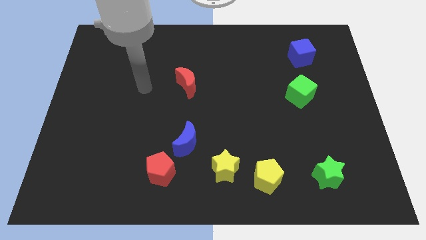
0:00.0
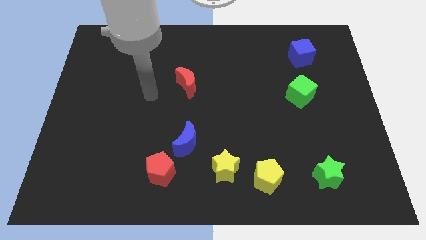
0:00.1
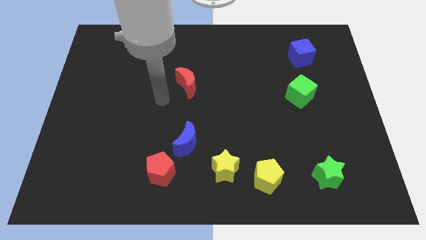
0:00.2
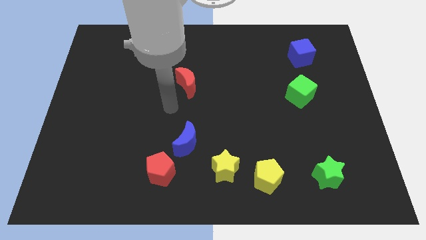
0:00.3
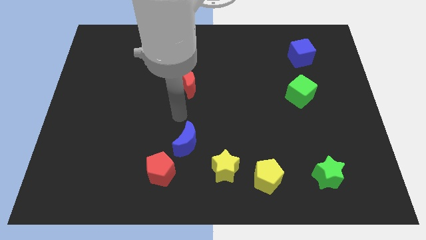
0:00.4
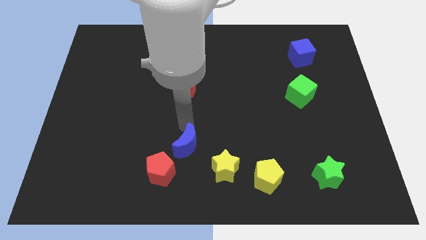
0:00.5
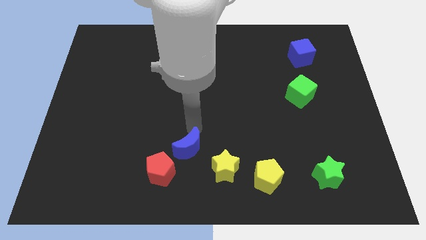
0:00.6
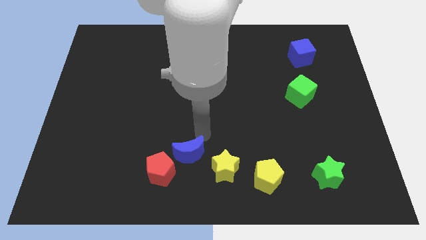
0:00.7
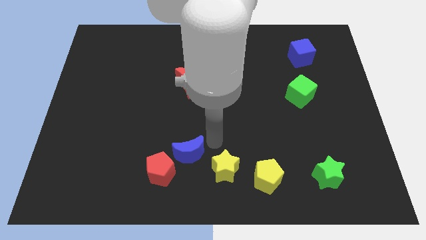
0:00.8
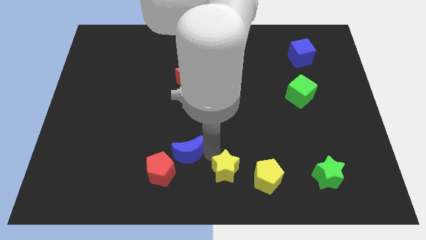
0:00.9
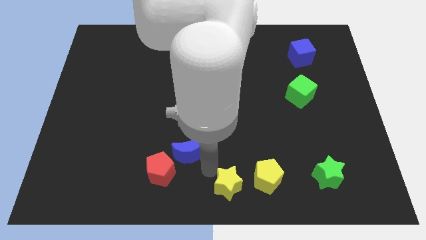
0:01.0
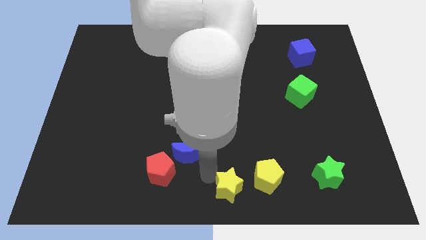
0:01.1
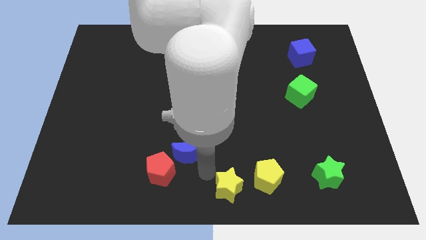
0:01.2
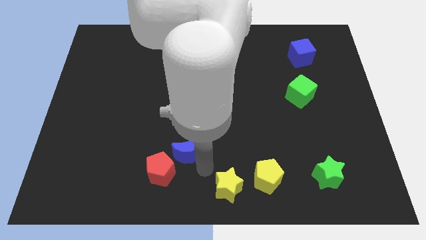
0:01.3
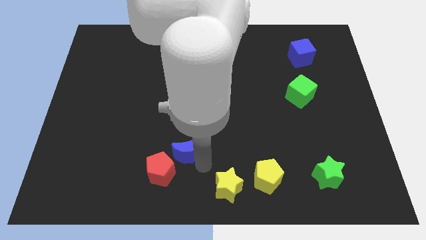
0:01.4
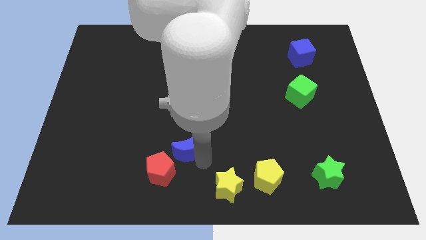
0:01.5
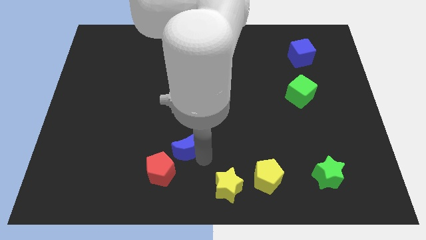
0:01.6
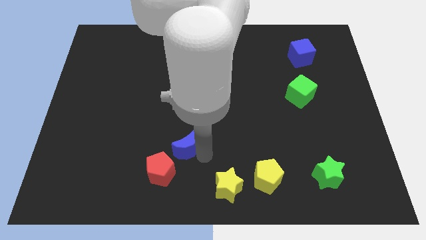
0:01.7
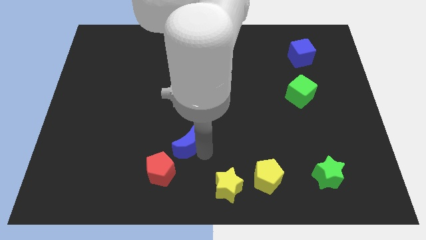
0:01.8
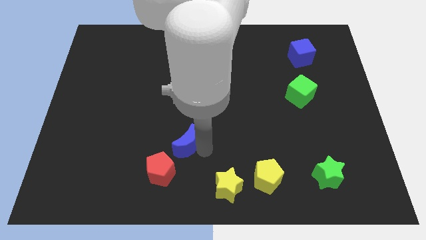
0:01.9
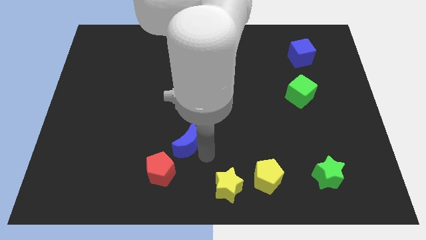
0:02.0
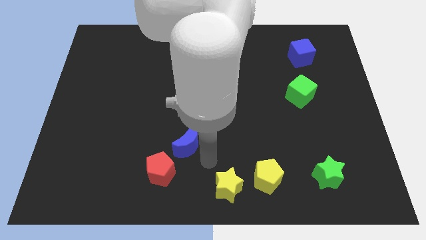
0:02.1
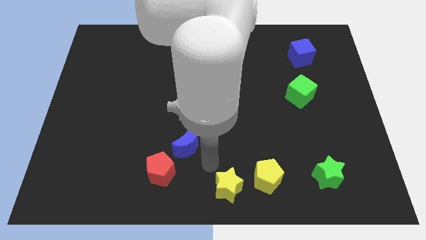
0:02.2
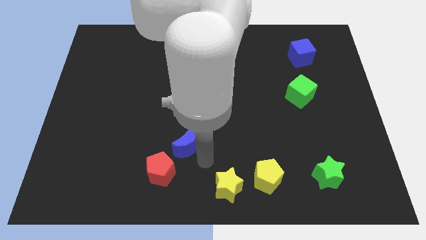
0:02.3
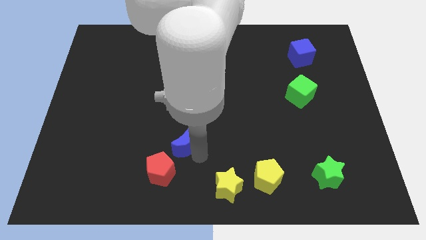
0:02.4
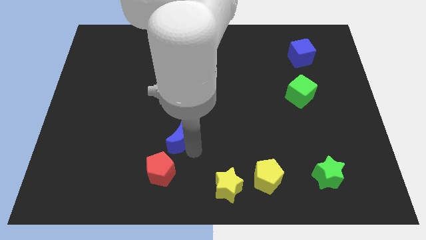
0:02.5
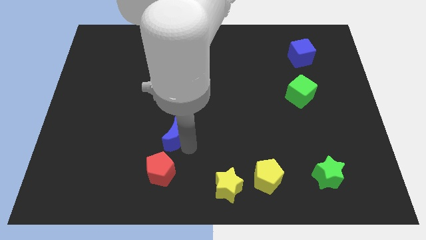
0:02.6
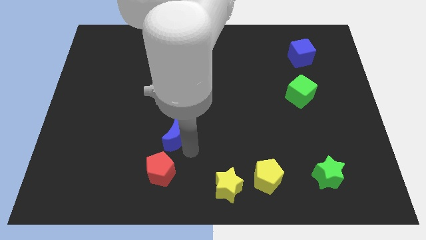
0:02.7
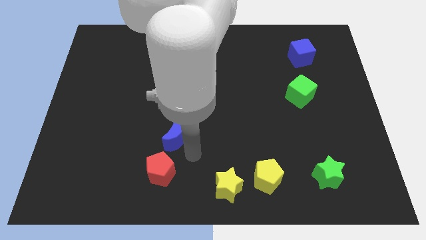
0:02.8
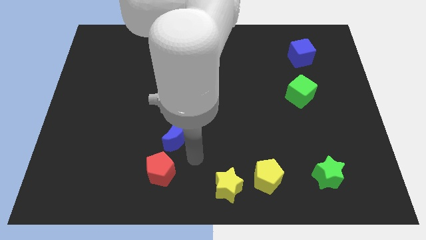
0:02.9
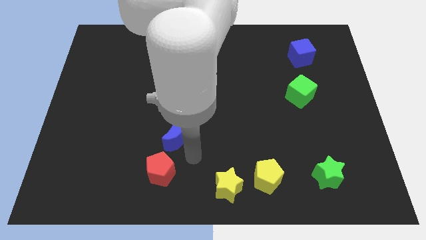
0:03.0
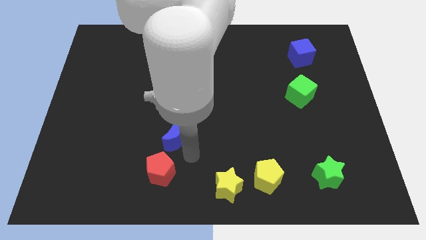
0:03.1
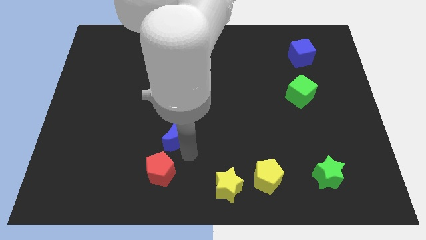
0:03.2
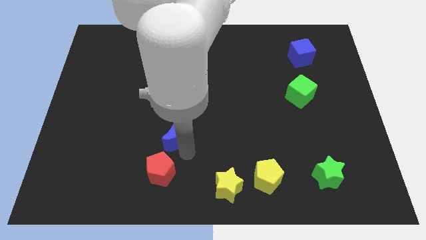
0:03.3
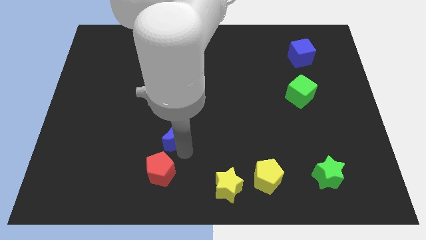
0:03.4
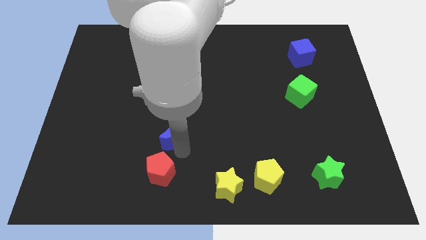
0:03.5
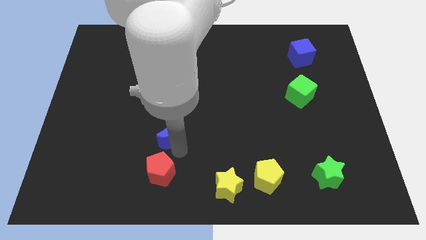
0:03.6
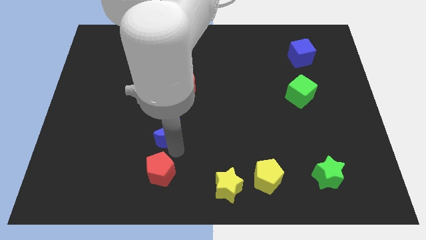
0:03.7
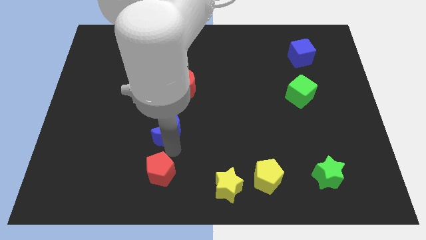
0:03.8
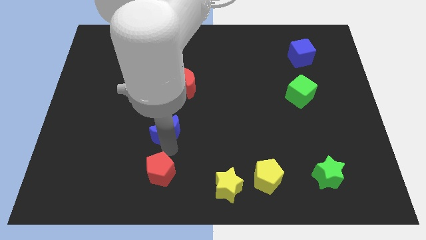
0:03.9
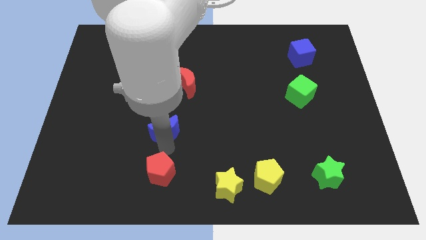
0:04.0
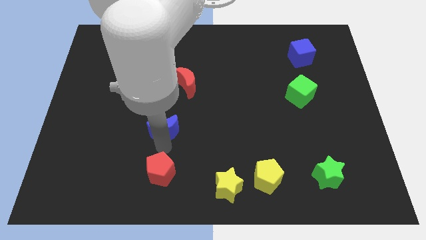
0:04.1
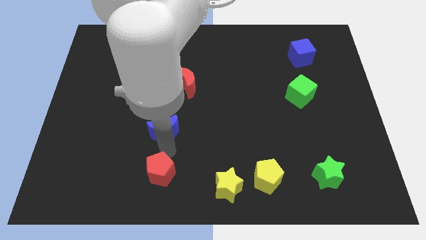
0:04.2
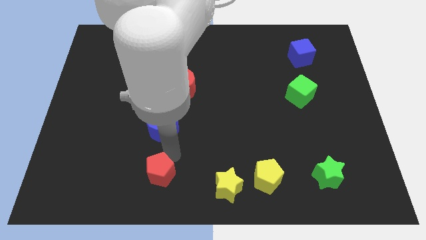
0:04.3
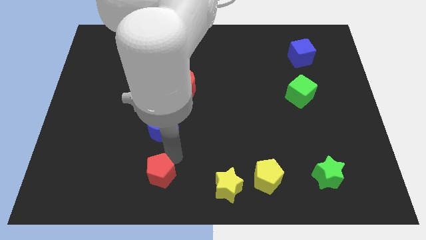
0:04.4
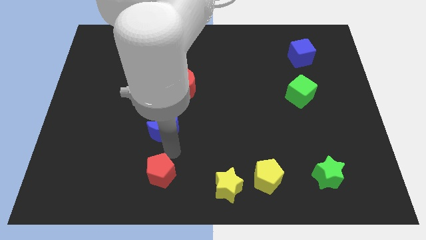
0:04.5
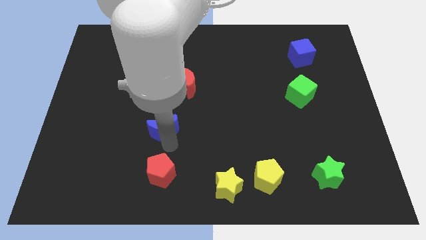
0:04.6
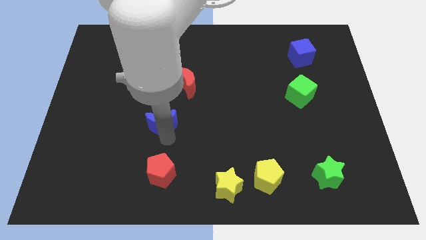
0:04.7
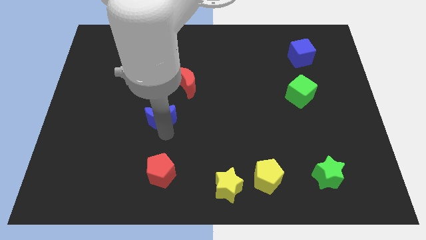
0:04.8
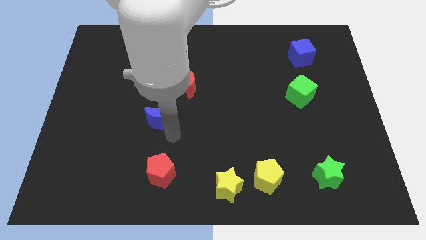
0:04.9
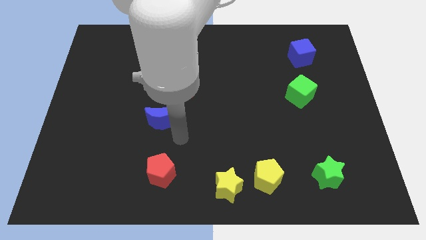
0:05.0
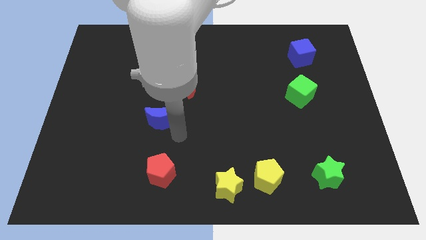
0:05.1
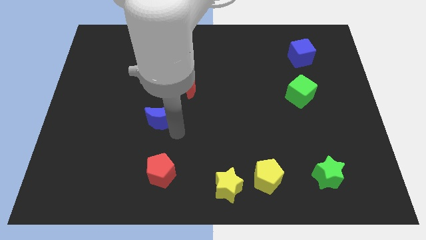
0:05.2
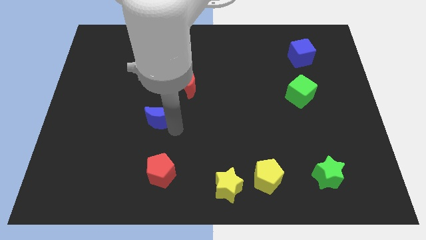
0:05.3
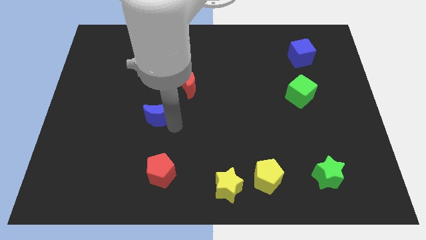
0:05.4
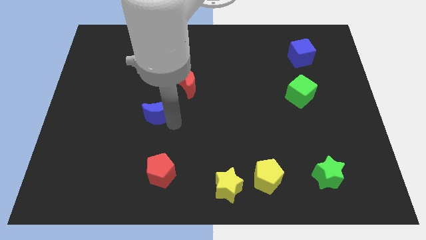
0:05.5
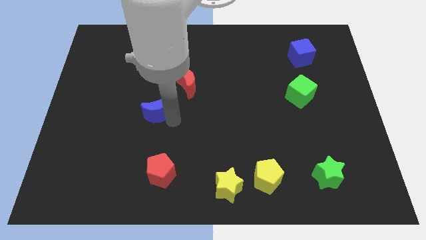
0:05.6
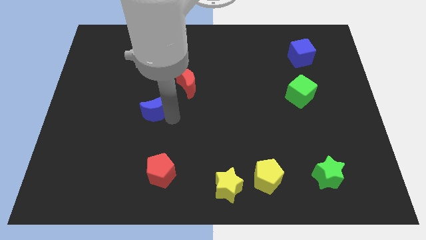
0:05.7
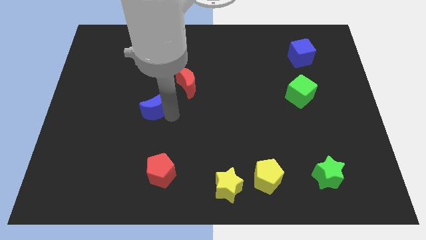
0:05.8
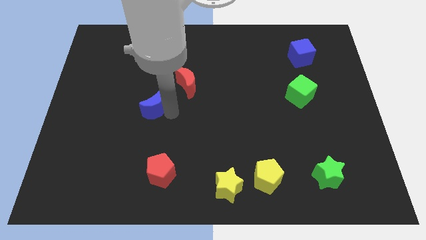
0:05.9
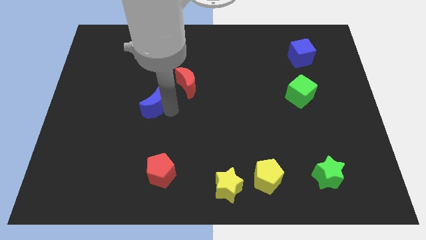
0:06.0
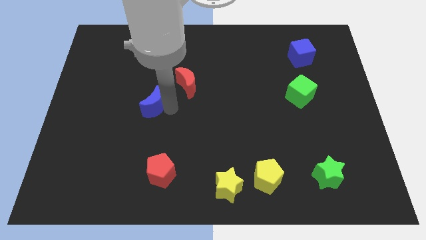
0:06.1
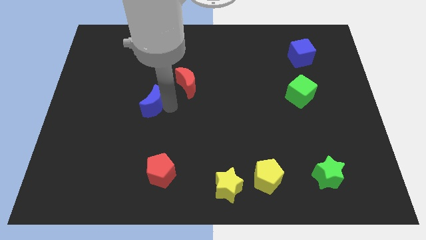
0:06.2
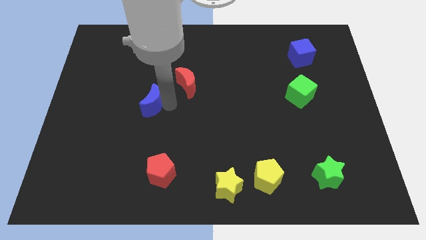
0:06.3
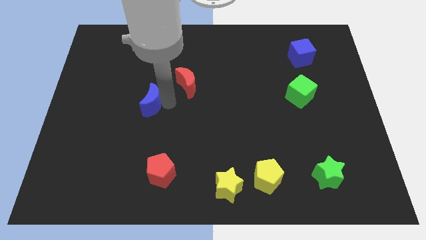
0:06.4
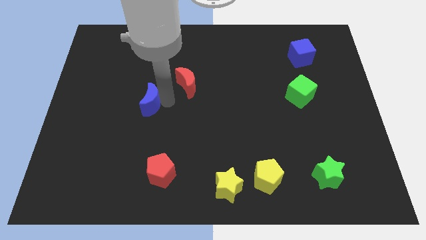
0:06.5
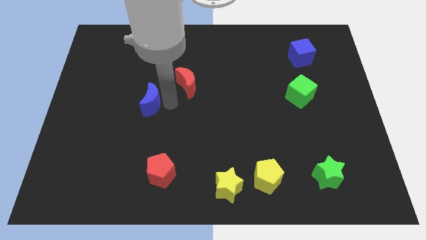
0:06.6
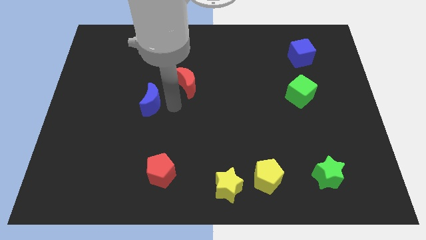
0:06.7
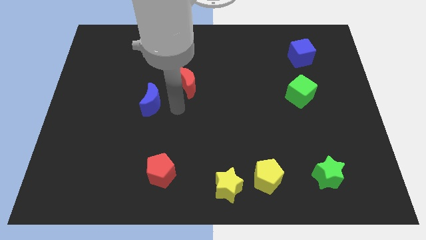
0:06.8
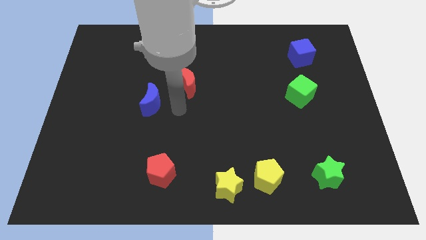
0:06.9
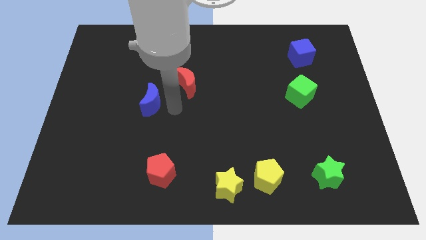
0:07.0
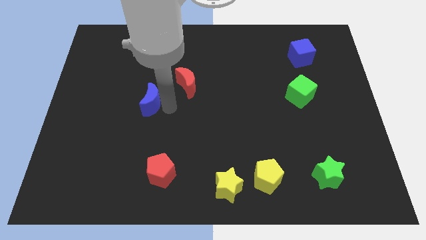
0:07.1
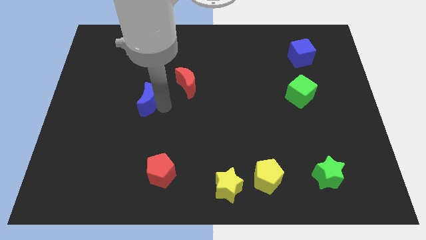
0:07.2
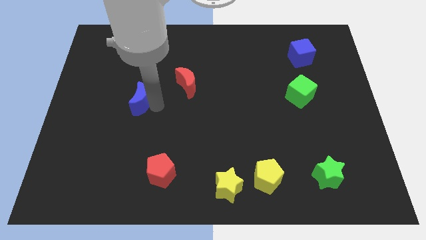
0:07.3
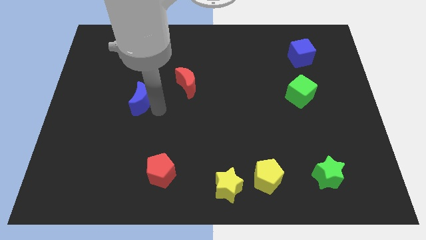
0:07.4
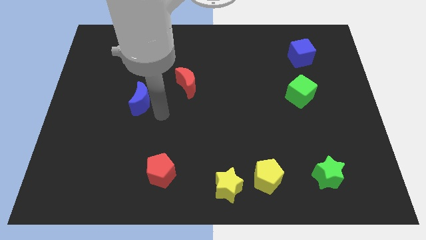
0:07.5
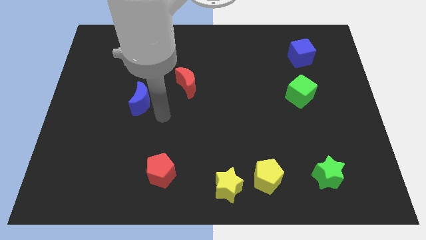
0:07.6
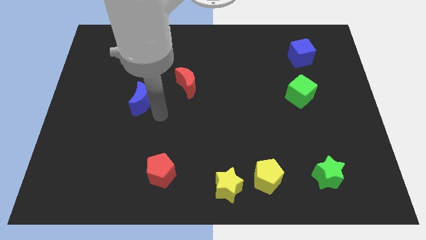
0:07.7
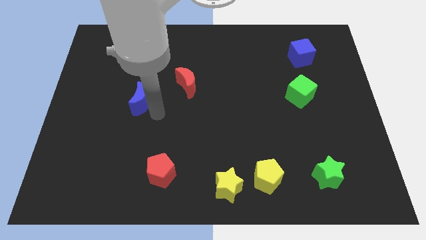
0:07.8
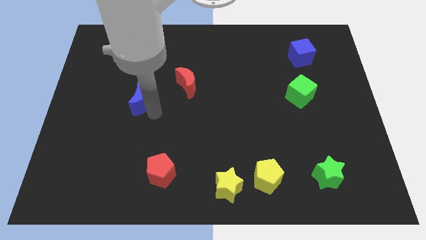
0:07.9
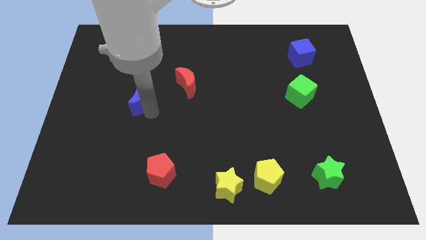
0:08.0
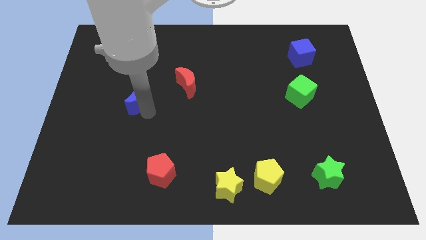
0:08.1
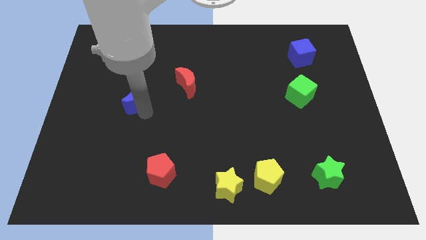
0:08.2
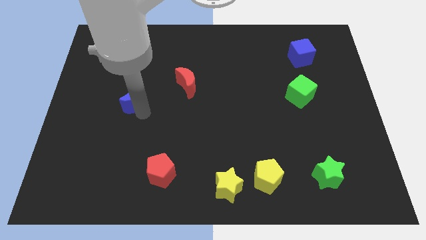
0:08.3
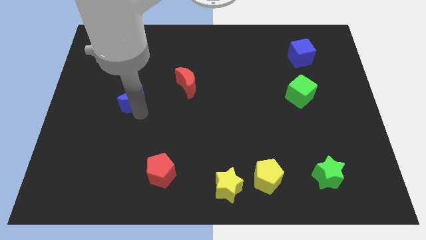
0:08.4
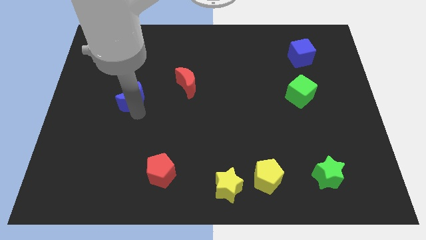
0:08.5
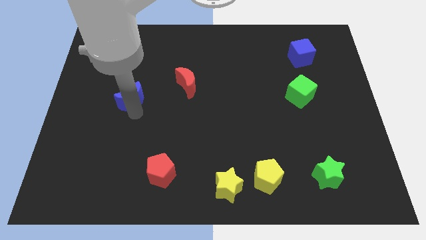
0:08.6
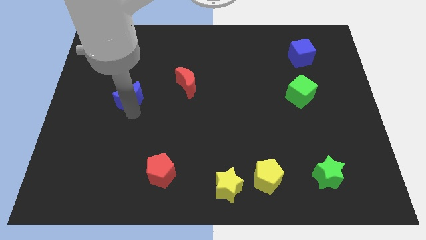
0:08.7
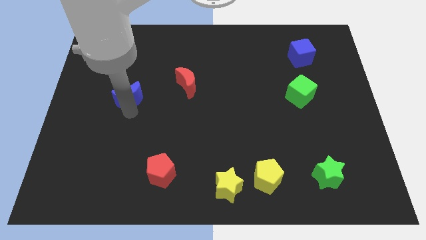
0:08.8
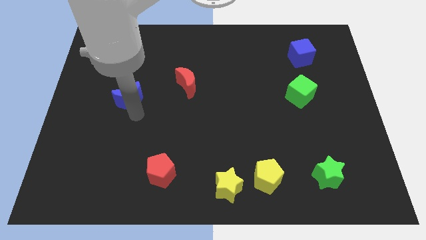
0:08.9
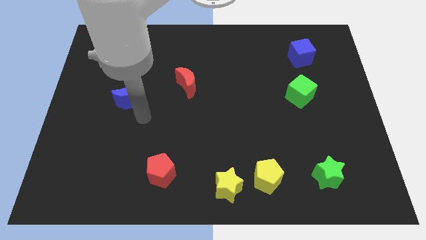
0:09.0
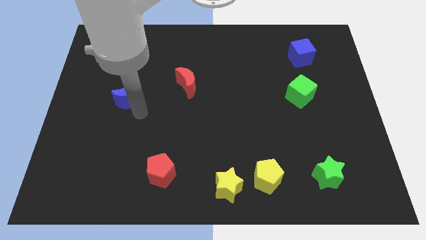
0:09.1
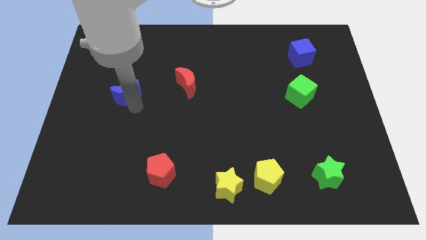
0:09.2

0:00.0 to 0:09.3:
slide the blue moon up and to the left
